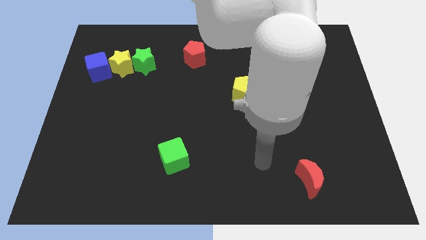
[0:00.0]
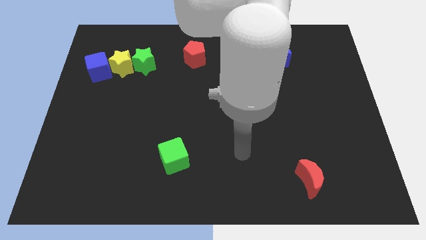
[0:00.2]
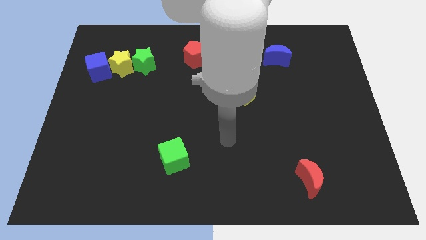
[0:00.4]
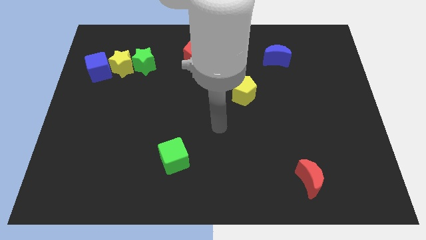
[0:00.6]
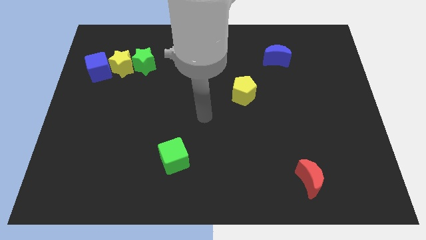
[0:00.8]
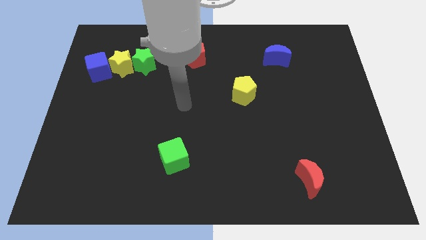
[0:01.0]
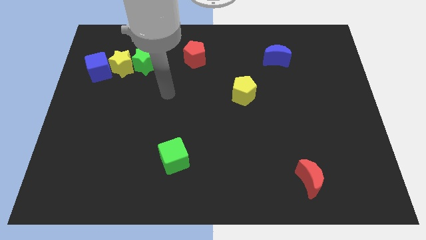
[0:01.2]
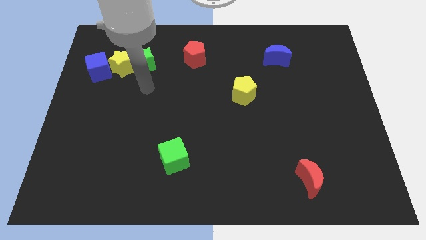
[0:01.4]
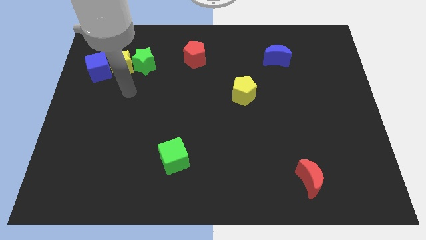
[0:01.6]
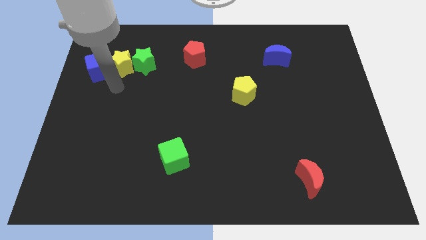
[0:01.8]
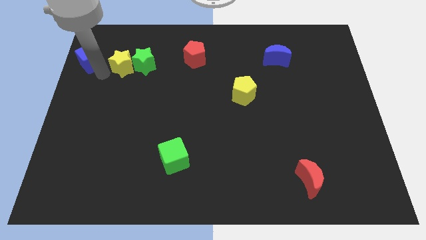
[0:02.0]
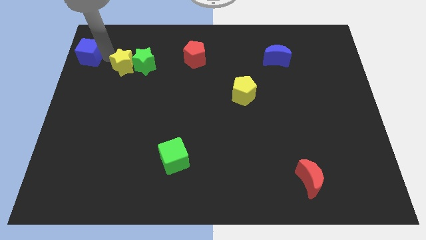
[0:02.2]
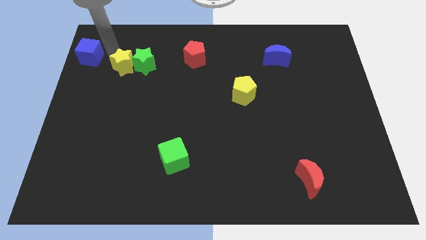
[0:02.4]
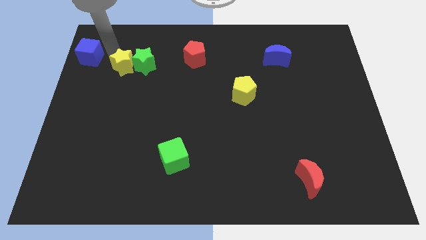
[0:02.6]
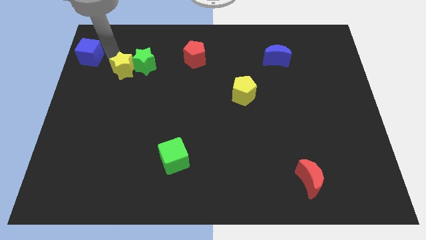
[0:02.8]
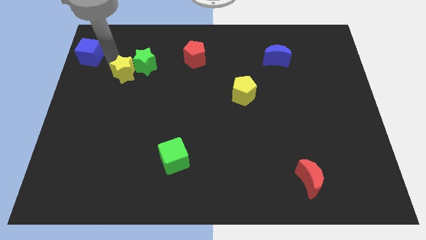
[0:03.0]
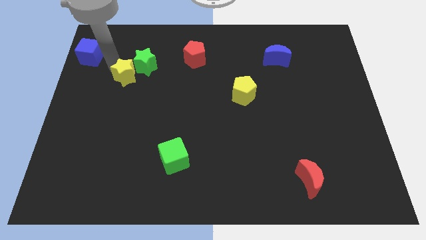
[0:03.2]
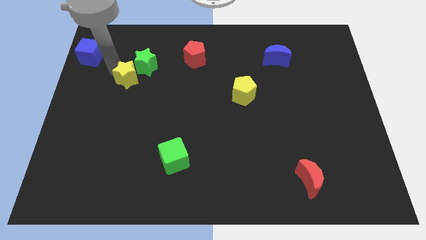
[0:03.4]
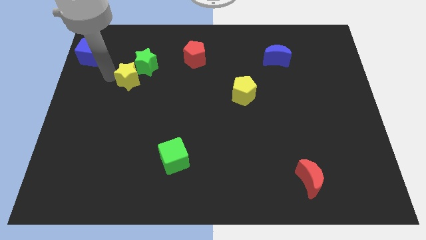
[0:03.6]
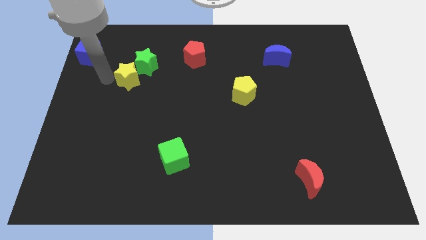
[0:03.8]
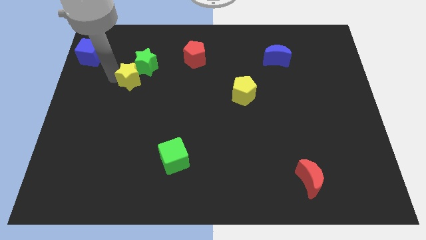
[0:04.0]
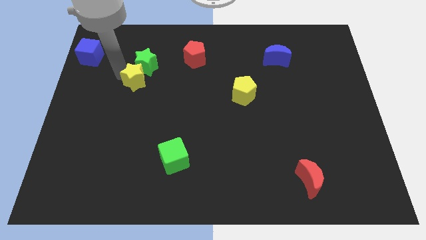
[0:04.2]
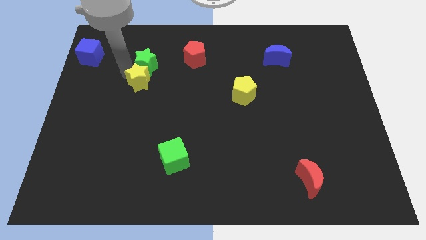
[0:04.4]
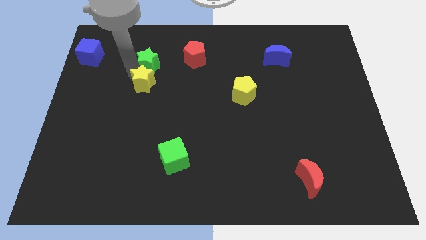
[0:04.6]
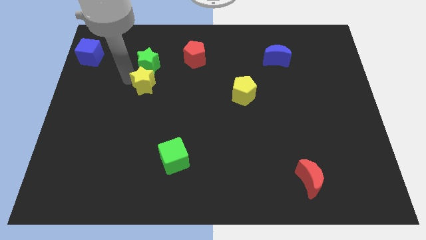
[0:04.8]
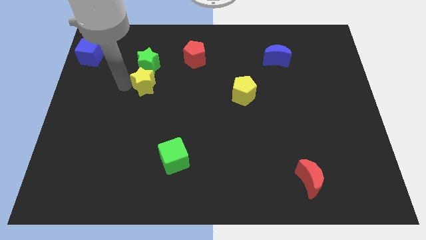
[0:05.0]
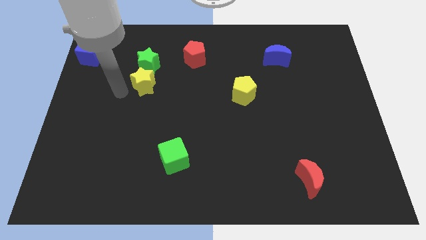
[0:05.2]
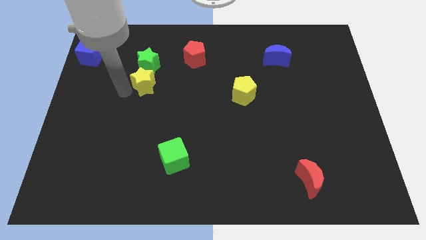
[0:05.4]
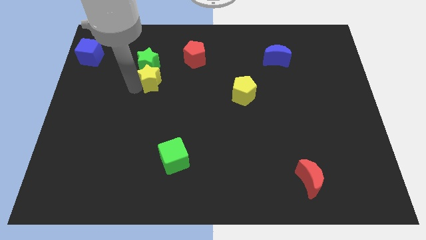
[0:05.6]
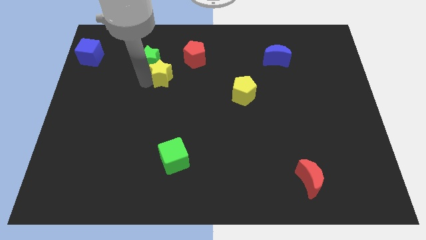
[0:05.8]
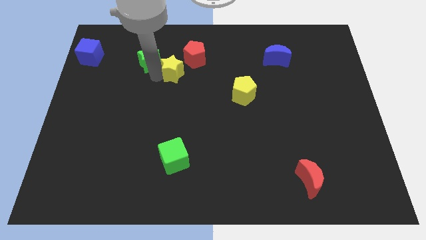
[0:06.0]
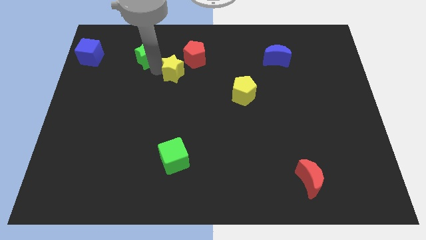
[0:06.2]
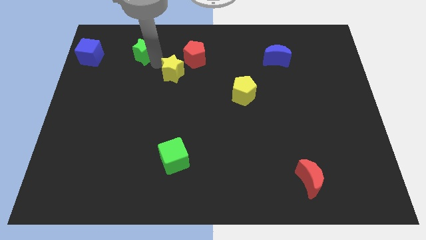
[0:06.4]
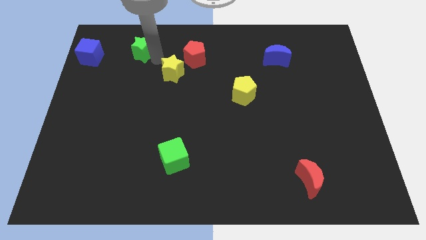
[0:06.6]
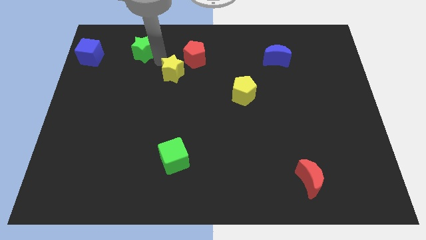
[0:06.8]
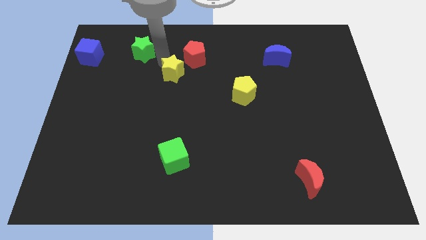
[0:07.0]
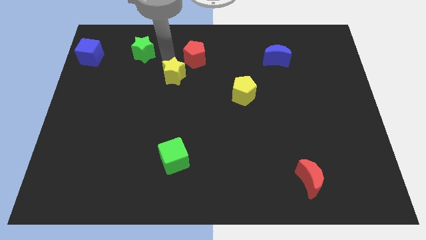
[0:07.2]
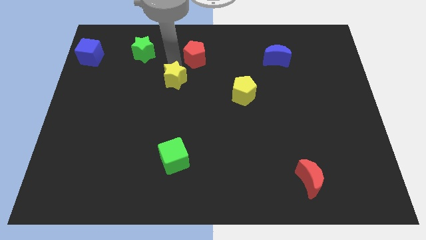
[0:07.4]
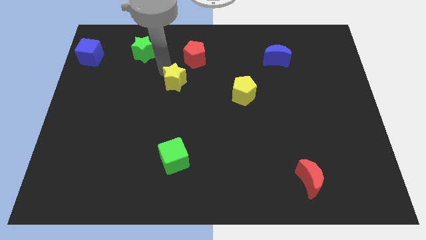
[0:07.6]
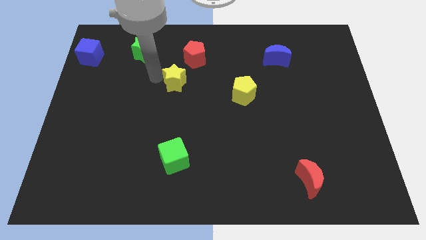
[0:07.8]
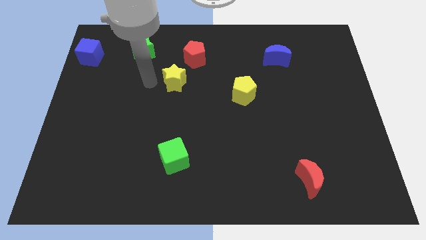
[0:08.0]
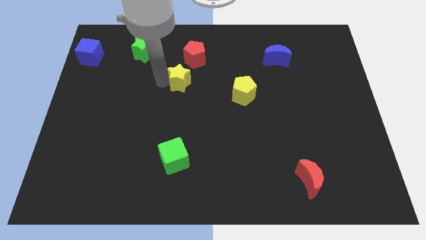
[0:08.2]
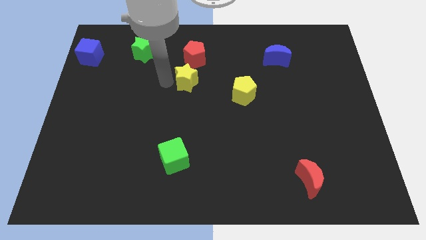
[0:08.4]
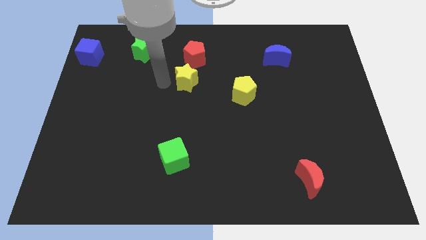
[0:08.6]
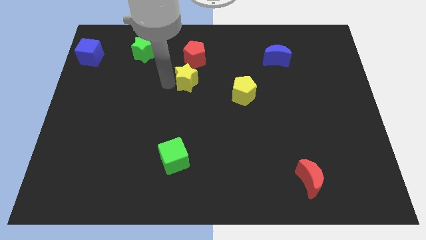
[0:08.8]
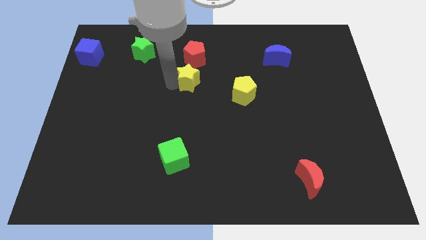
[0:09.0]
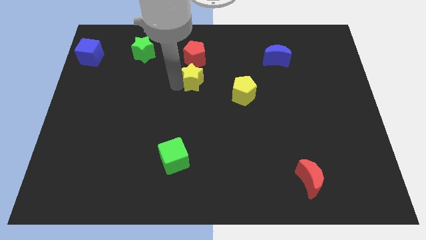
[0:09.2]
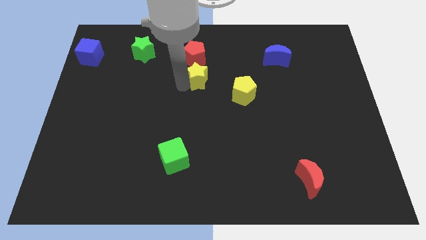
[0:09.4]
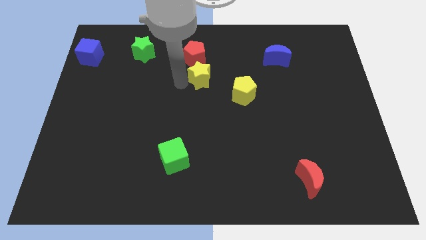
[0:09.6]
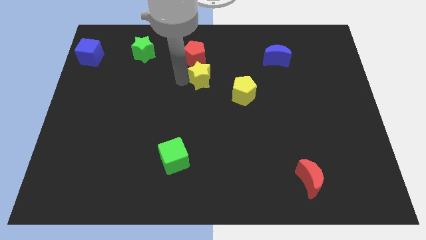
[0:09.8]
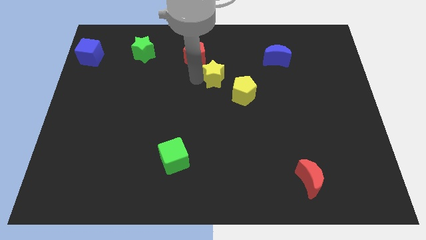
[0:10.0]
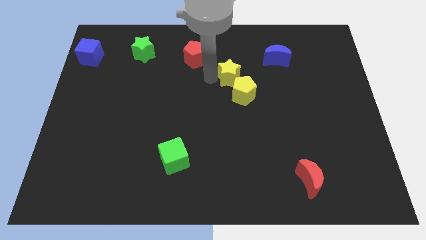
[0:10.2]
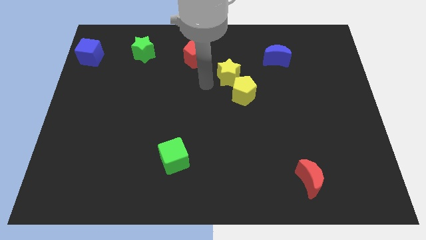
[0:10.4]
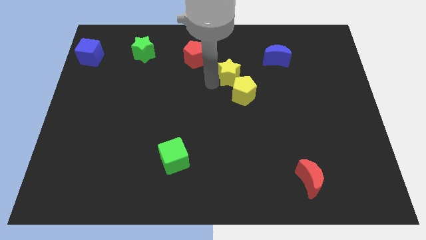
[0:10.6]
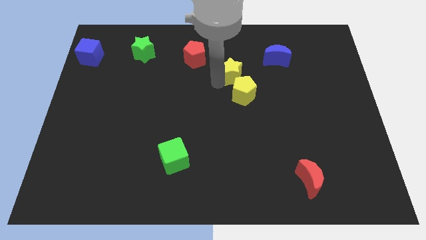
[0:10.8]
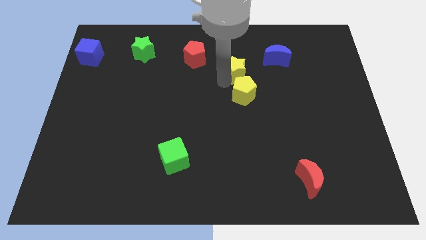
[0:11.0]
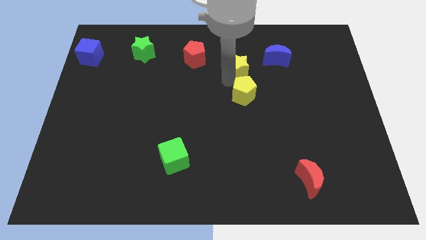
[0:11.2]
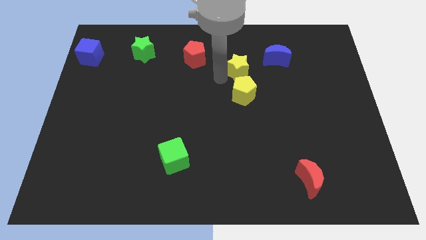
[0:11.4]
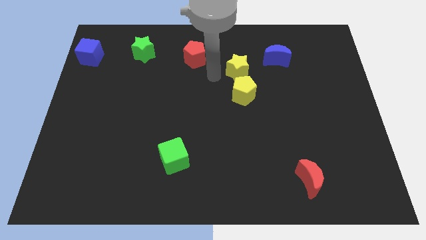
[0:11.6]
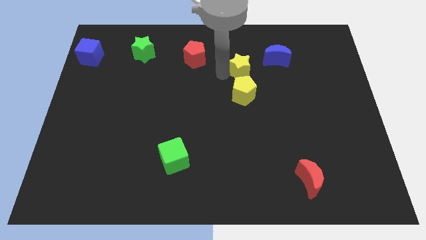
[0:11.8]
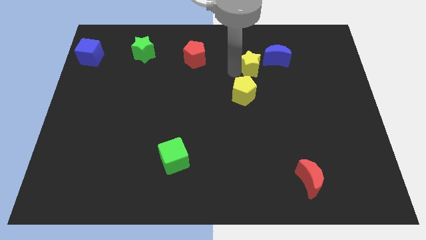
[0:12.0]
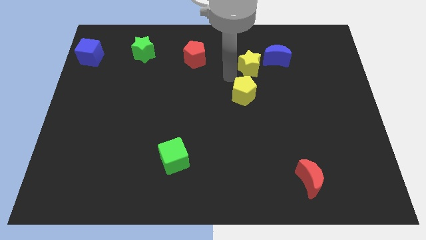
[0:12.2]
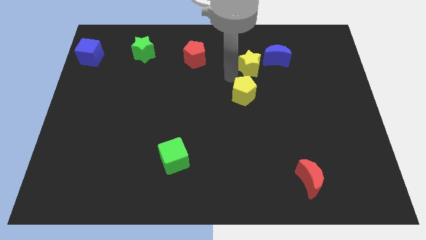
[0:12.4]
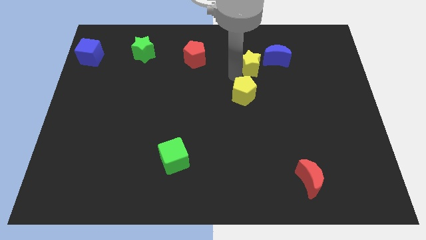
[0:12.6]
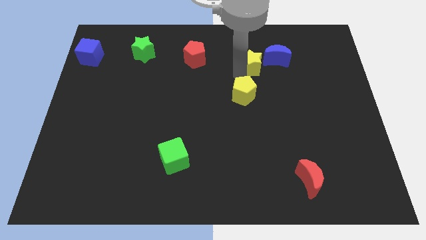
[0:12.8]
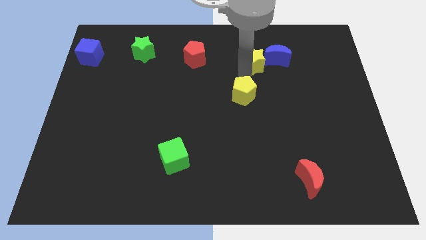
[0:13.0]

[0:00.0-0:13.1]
push the yellow star close to the blue moon
